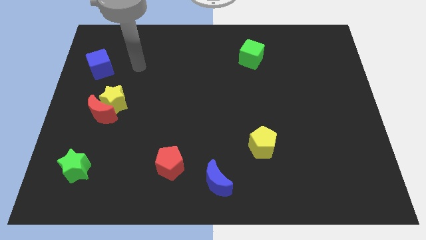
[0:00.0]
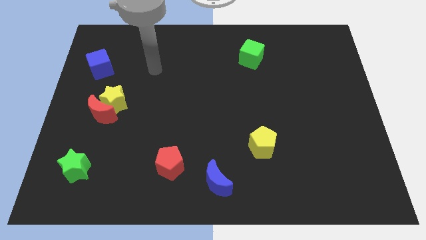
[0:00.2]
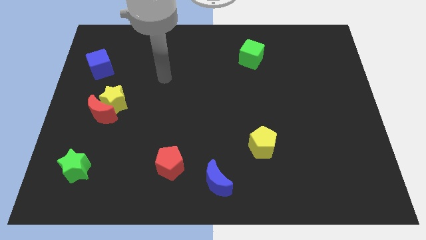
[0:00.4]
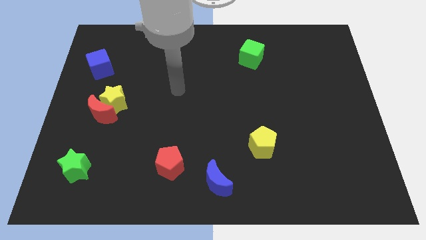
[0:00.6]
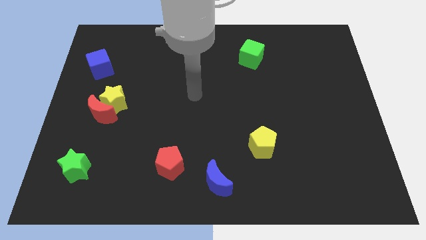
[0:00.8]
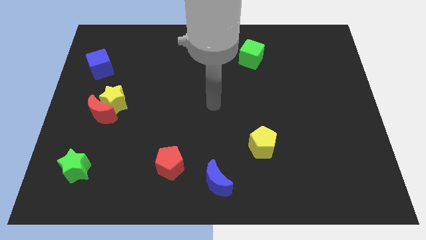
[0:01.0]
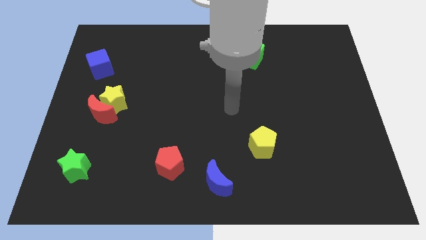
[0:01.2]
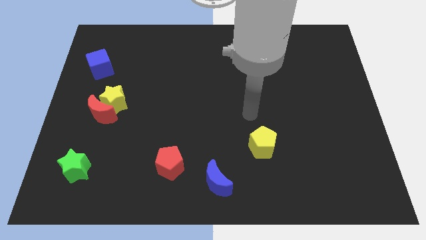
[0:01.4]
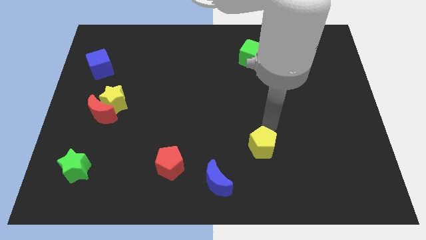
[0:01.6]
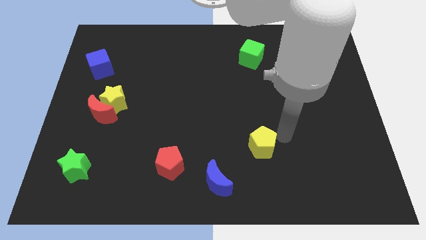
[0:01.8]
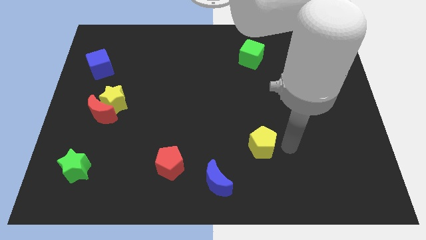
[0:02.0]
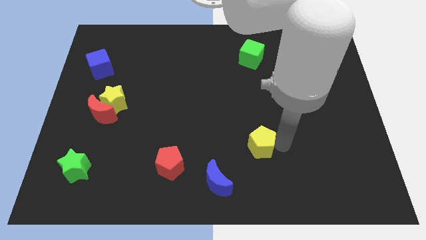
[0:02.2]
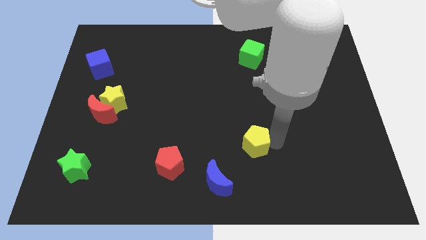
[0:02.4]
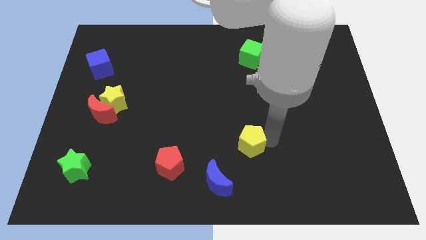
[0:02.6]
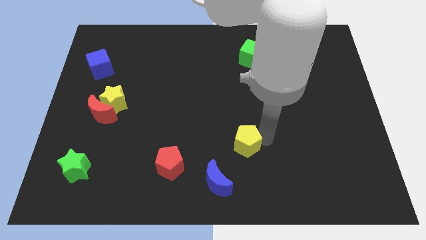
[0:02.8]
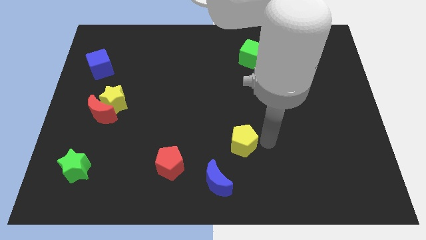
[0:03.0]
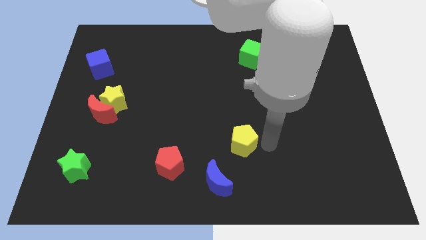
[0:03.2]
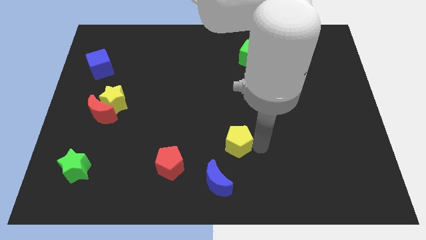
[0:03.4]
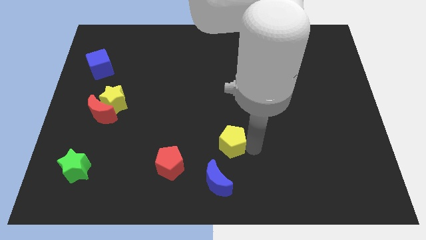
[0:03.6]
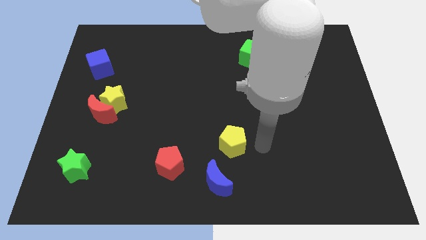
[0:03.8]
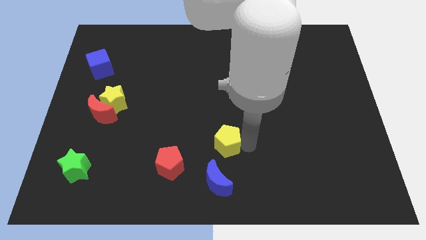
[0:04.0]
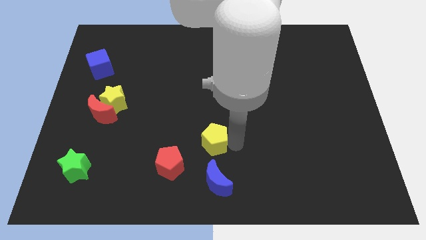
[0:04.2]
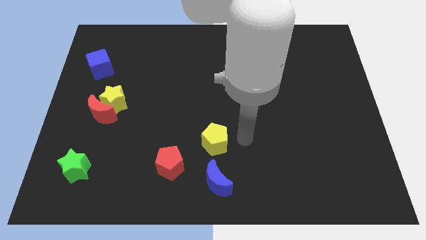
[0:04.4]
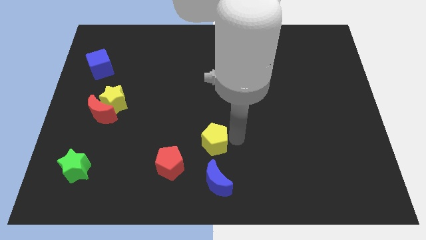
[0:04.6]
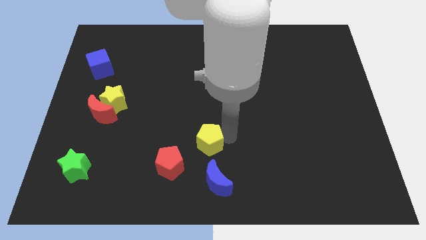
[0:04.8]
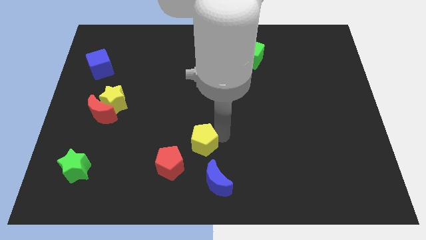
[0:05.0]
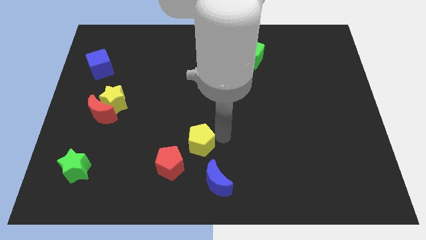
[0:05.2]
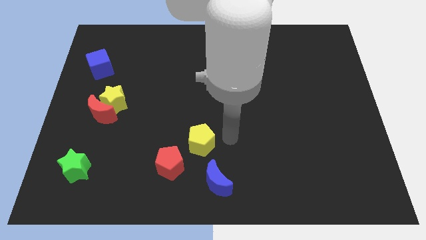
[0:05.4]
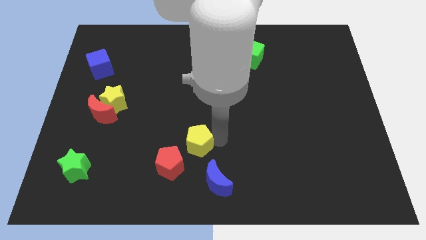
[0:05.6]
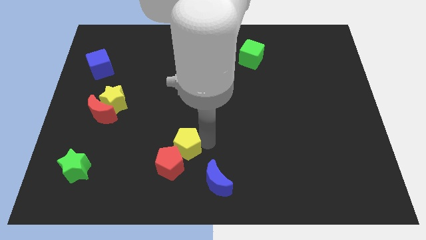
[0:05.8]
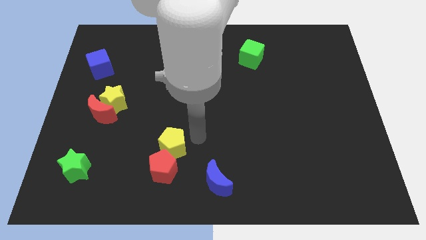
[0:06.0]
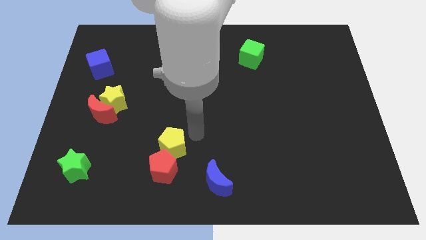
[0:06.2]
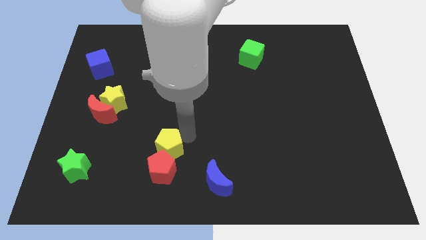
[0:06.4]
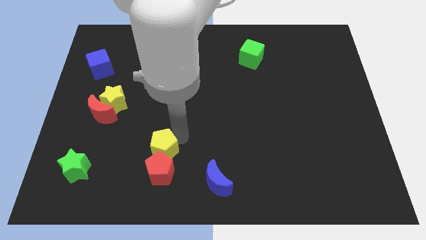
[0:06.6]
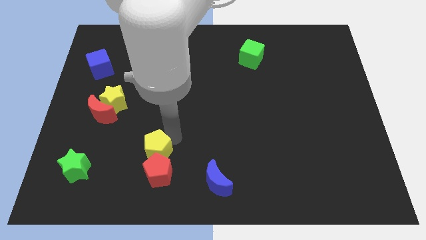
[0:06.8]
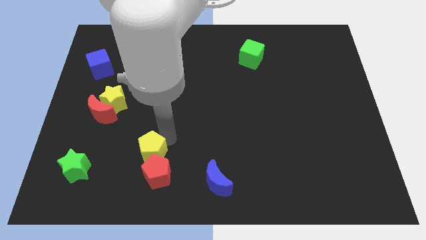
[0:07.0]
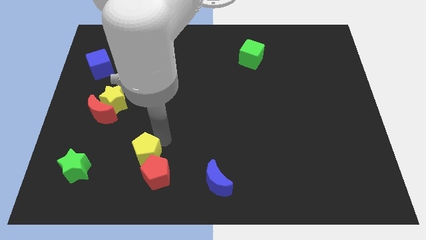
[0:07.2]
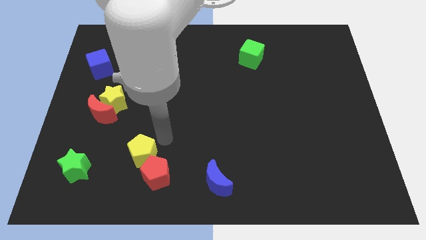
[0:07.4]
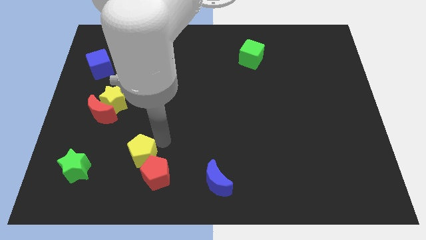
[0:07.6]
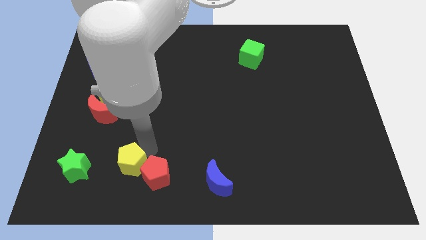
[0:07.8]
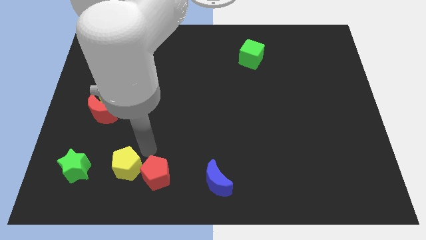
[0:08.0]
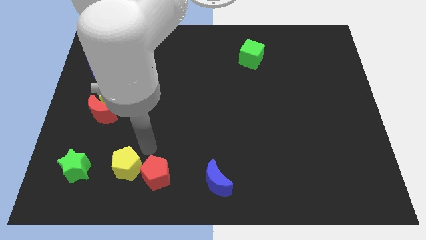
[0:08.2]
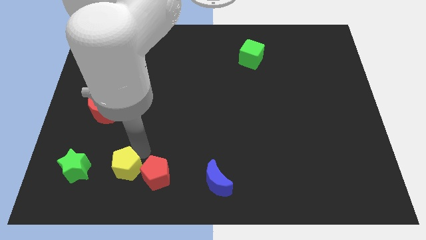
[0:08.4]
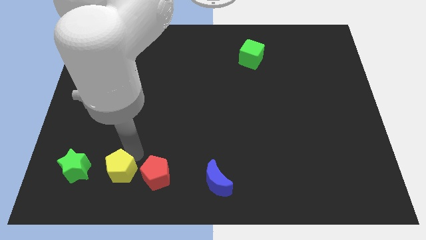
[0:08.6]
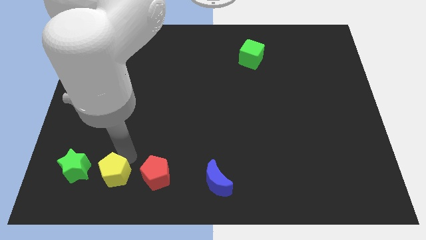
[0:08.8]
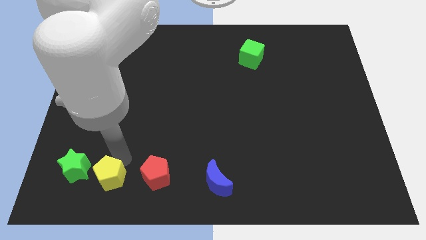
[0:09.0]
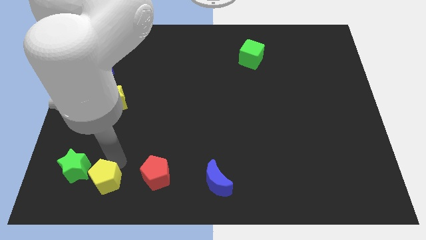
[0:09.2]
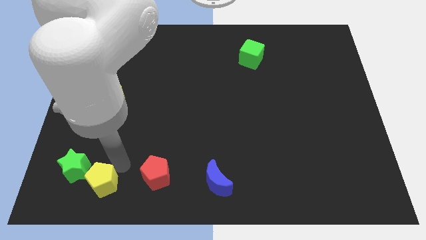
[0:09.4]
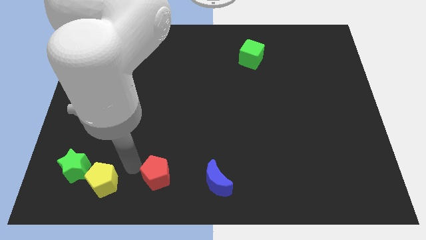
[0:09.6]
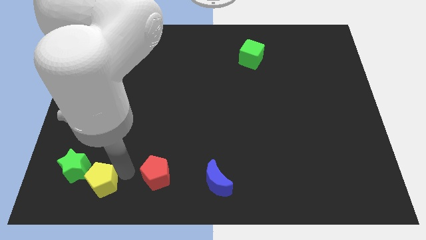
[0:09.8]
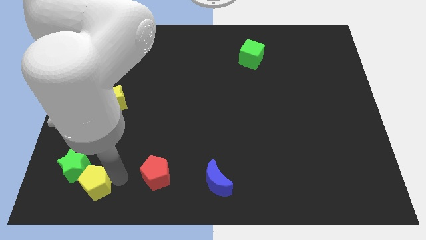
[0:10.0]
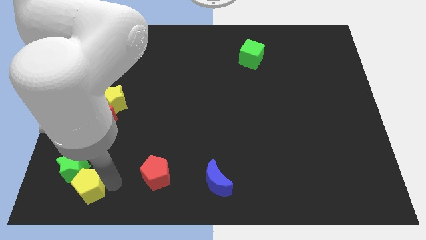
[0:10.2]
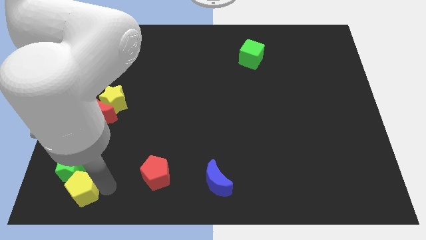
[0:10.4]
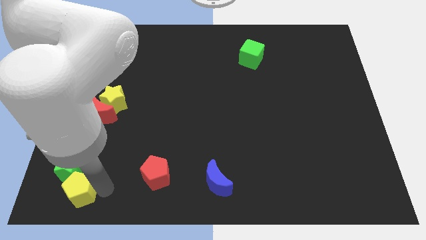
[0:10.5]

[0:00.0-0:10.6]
move the yellow pentagon to the bottom left

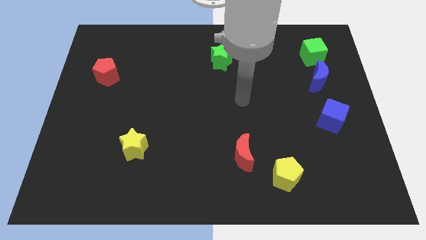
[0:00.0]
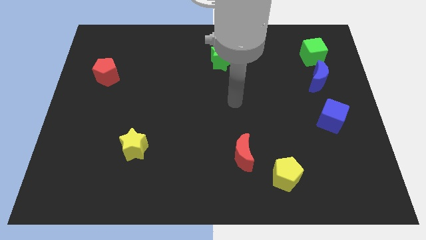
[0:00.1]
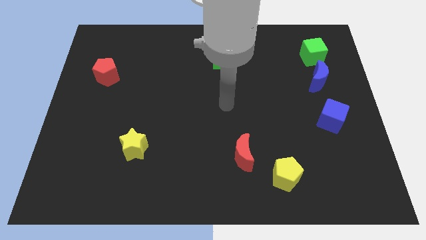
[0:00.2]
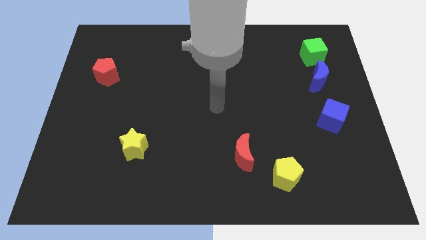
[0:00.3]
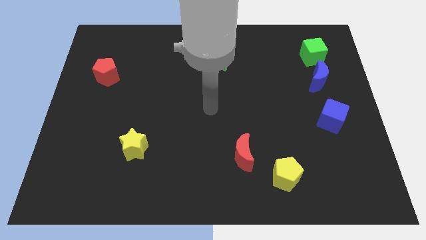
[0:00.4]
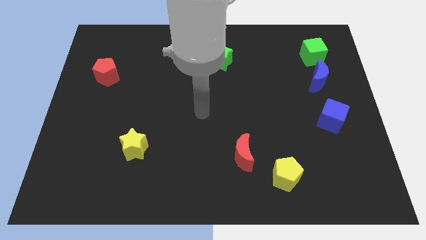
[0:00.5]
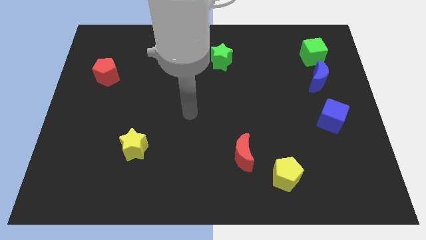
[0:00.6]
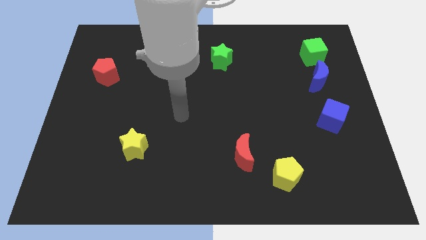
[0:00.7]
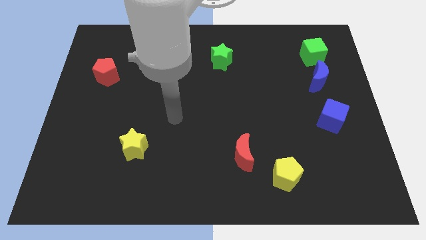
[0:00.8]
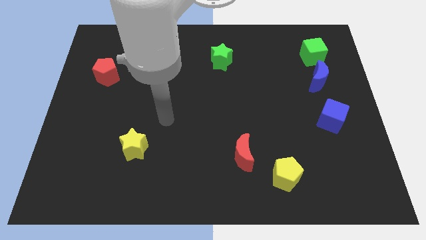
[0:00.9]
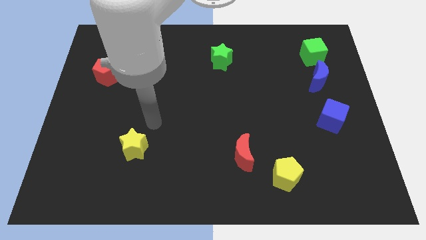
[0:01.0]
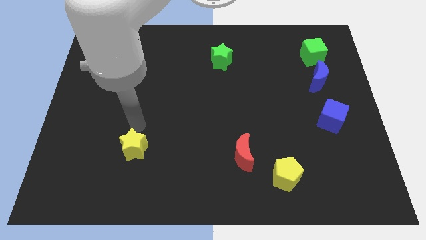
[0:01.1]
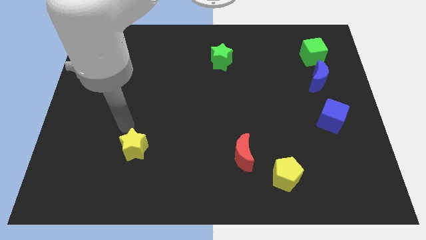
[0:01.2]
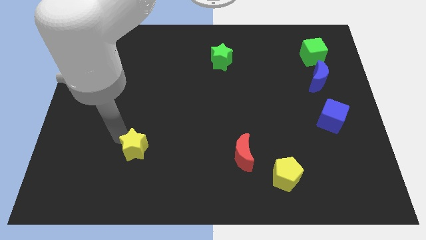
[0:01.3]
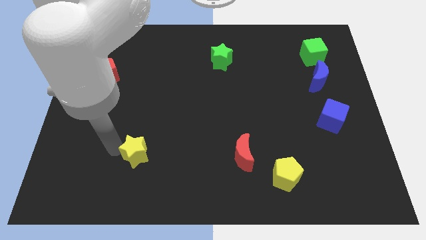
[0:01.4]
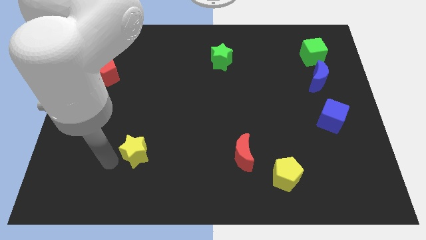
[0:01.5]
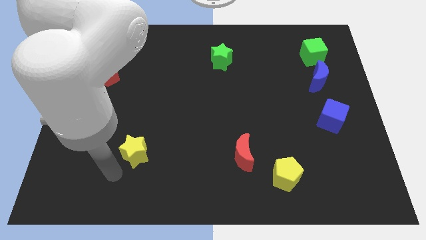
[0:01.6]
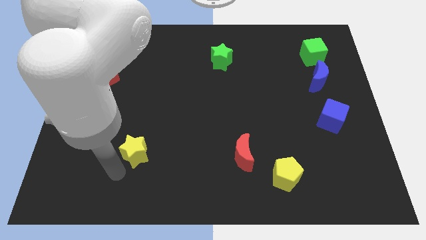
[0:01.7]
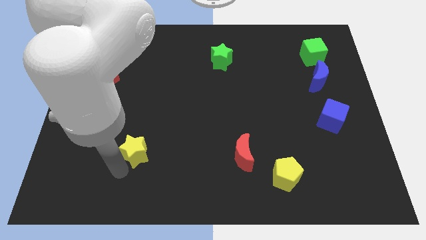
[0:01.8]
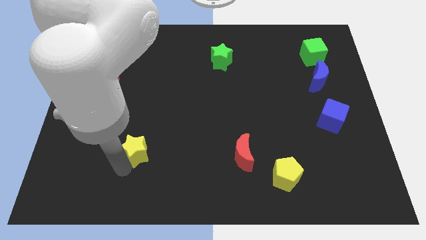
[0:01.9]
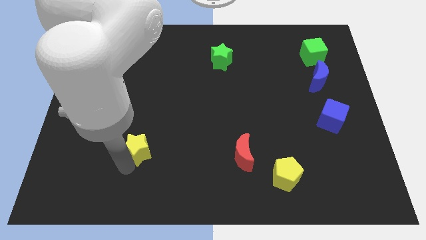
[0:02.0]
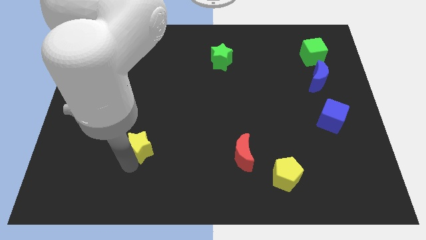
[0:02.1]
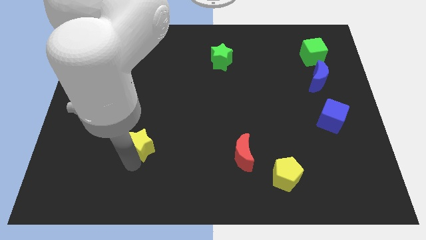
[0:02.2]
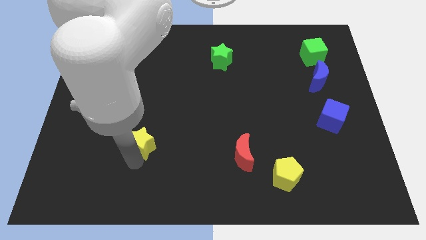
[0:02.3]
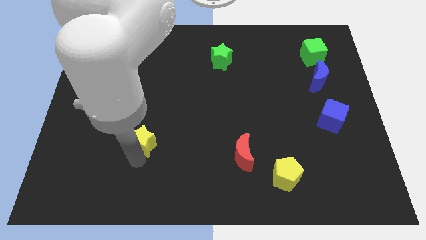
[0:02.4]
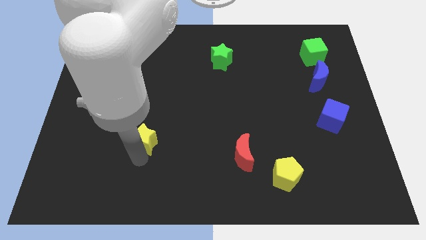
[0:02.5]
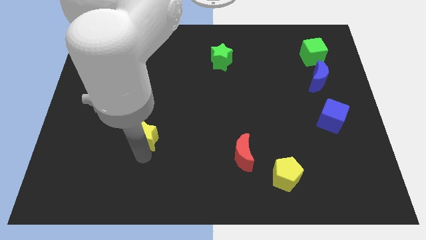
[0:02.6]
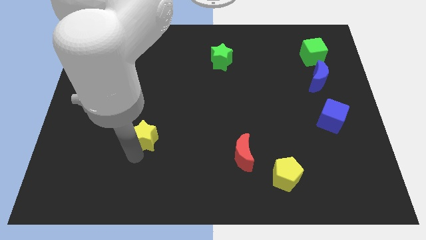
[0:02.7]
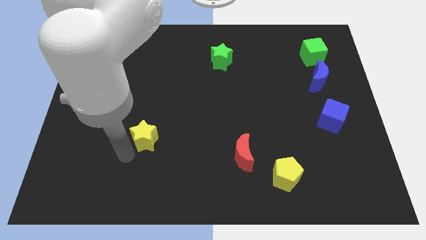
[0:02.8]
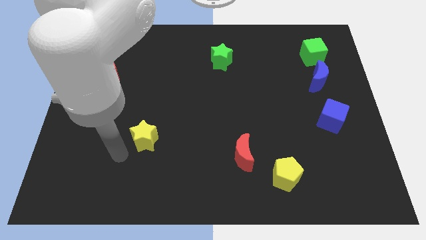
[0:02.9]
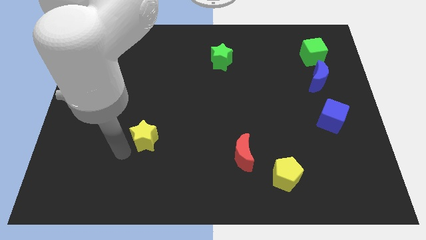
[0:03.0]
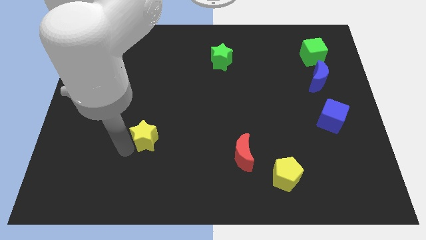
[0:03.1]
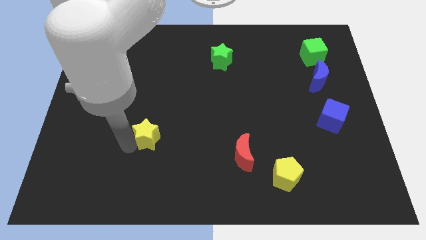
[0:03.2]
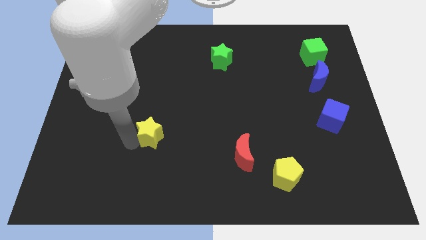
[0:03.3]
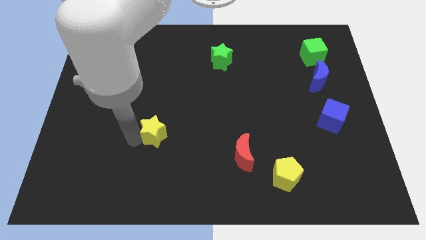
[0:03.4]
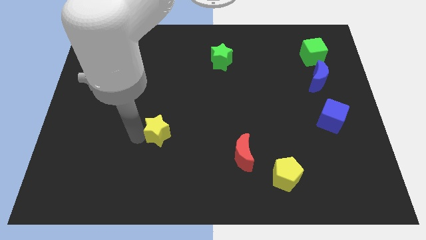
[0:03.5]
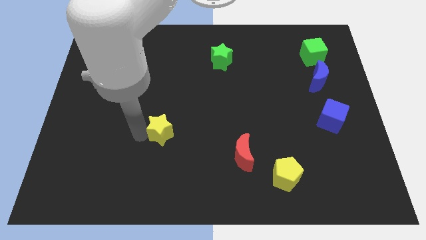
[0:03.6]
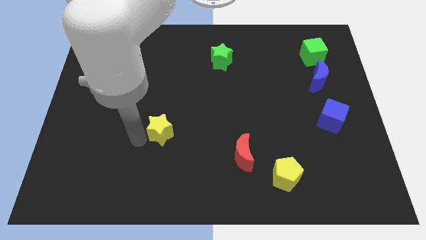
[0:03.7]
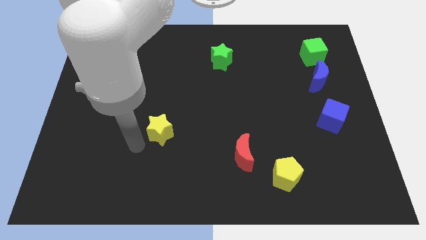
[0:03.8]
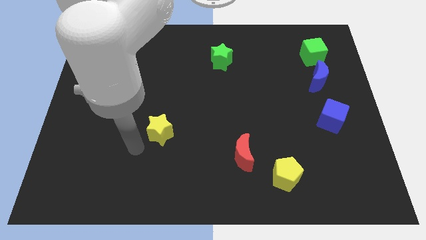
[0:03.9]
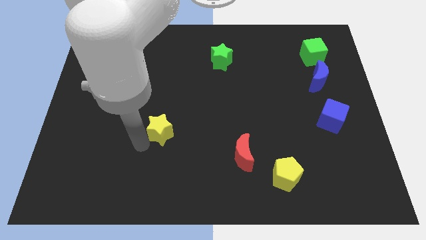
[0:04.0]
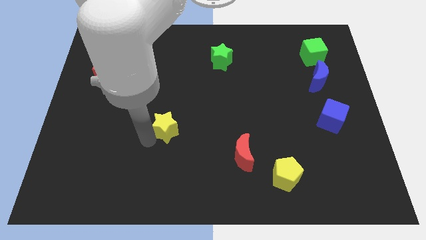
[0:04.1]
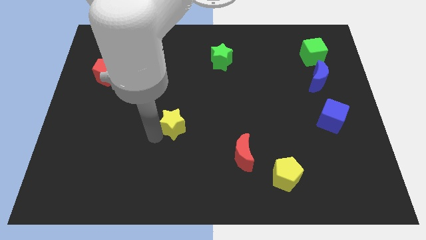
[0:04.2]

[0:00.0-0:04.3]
push the yellow star to the middle
